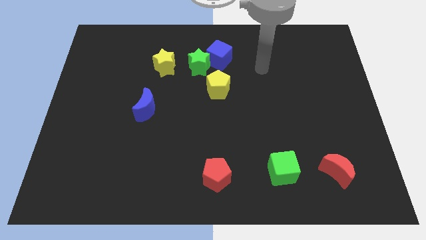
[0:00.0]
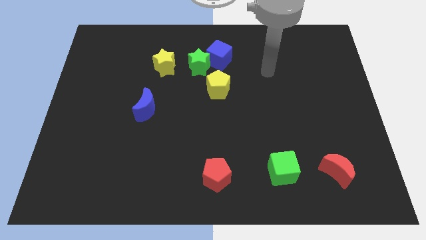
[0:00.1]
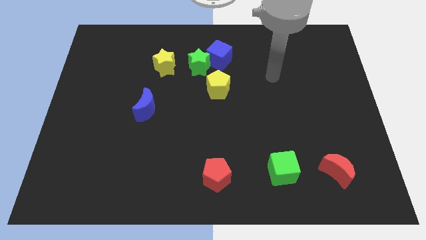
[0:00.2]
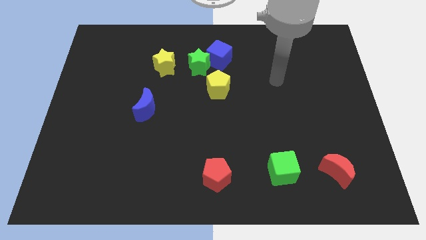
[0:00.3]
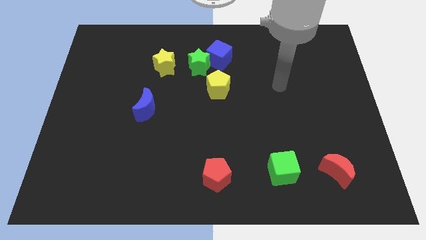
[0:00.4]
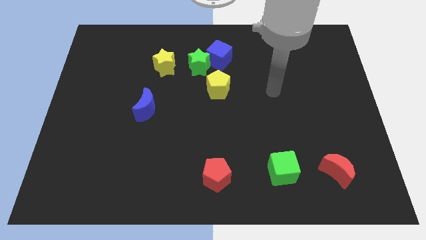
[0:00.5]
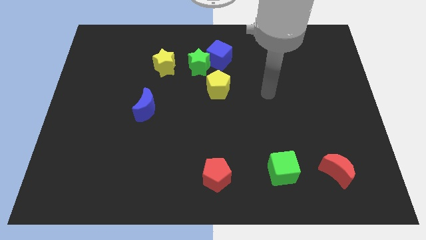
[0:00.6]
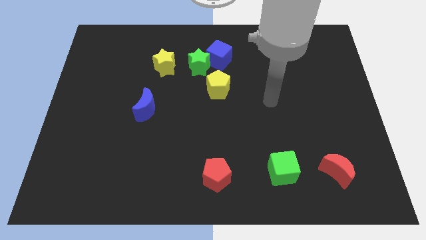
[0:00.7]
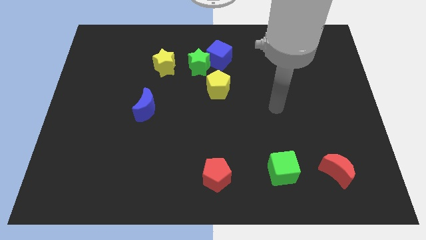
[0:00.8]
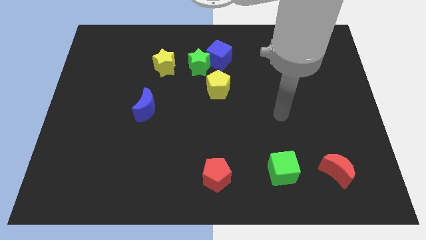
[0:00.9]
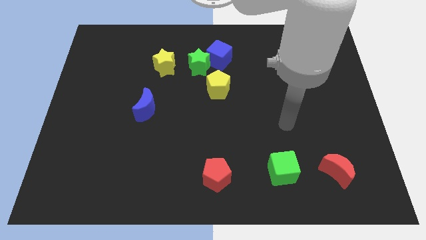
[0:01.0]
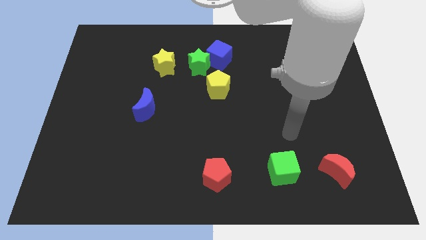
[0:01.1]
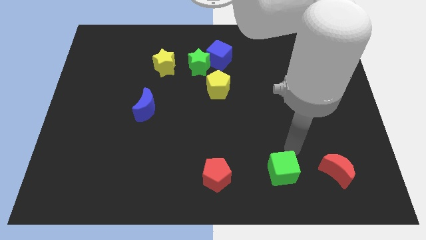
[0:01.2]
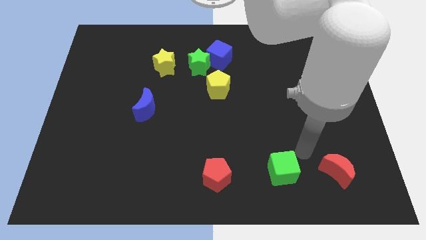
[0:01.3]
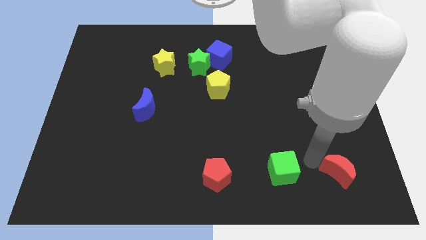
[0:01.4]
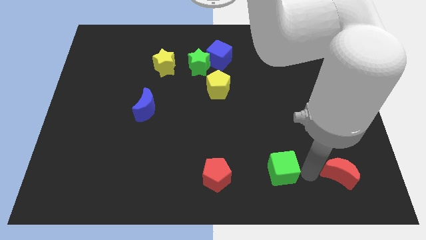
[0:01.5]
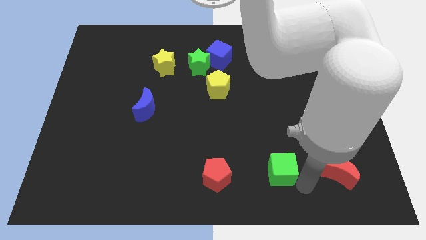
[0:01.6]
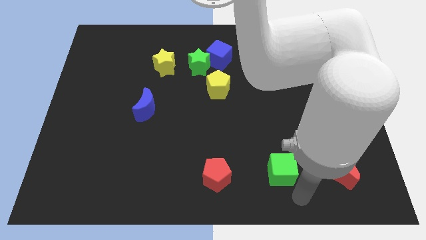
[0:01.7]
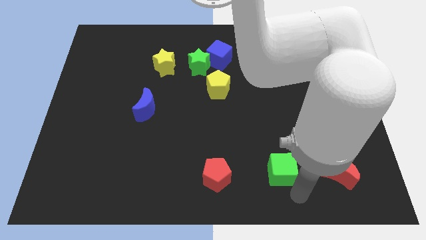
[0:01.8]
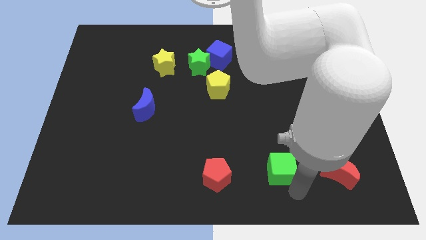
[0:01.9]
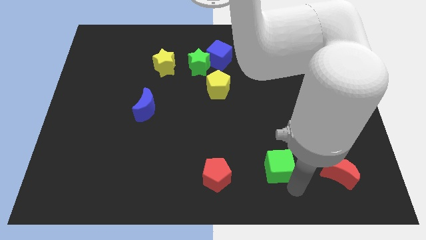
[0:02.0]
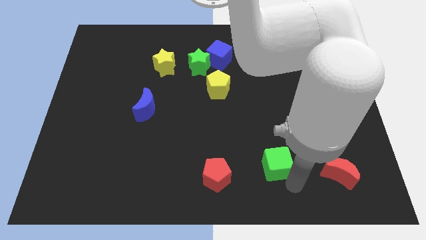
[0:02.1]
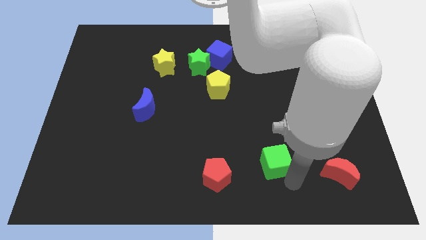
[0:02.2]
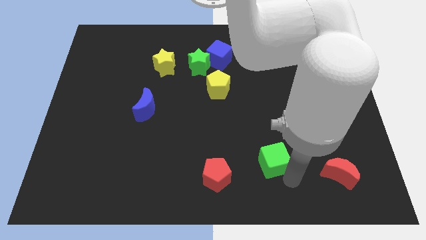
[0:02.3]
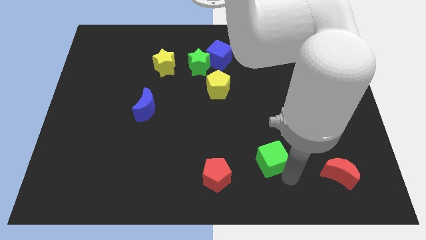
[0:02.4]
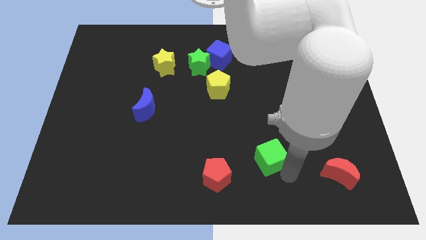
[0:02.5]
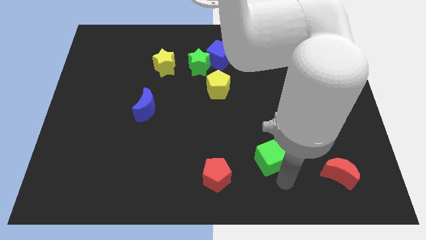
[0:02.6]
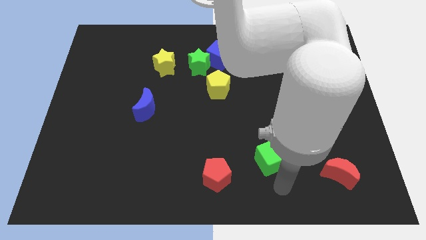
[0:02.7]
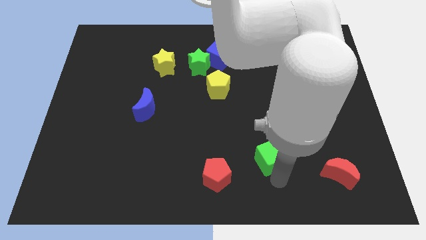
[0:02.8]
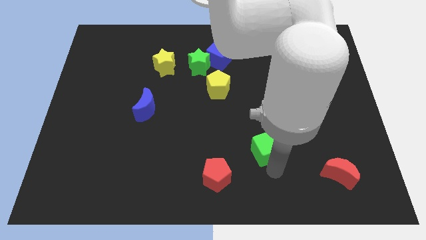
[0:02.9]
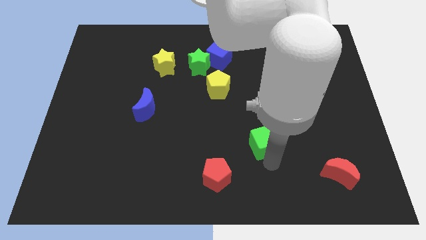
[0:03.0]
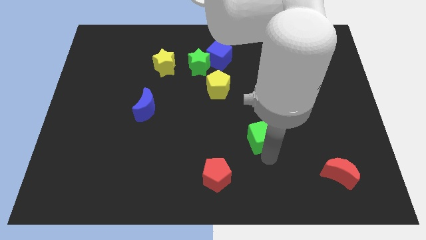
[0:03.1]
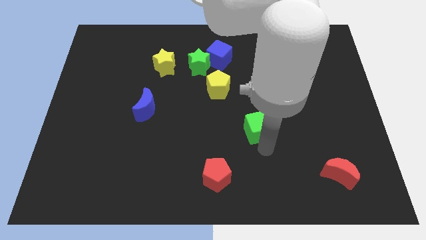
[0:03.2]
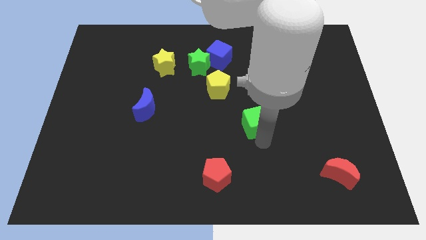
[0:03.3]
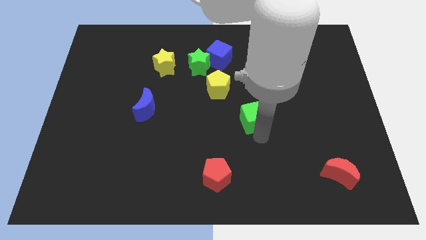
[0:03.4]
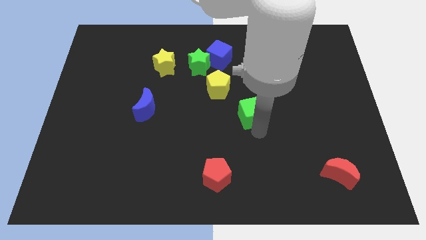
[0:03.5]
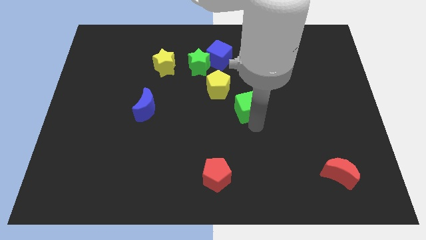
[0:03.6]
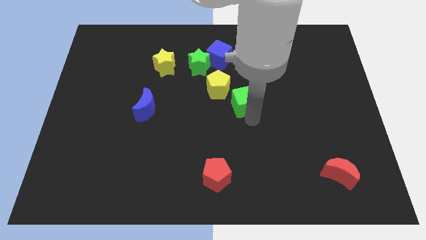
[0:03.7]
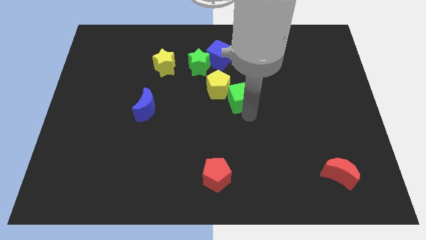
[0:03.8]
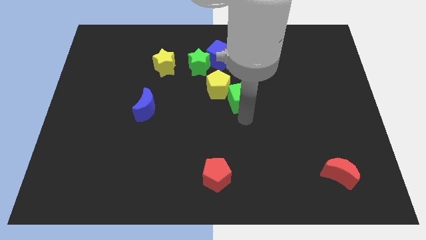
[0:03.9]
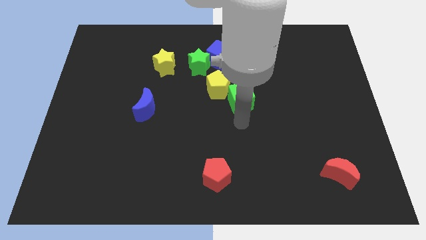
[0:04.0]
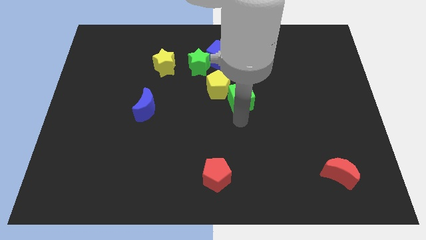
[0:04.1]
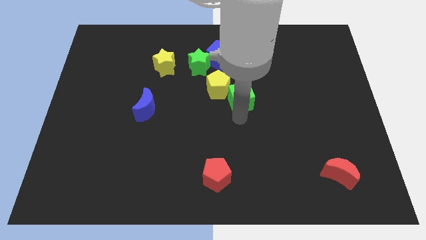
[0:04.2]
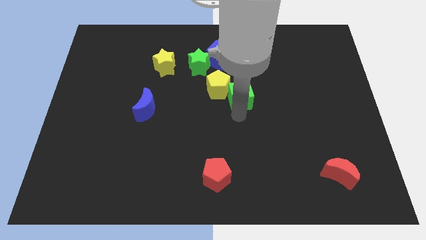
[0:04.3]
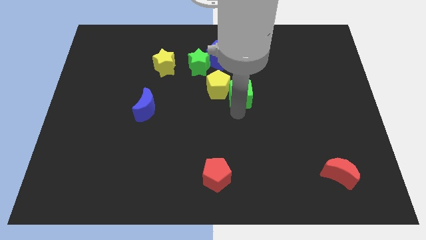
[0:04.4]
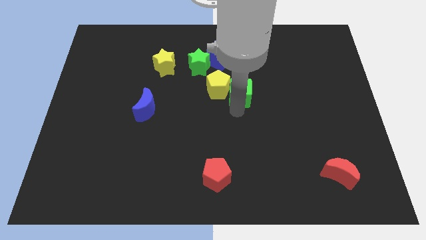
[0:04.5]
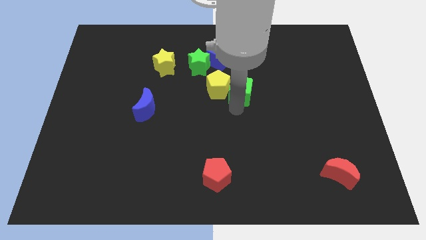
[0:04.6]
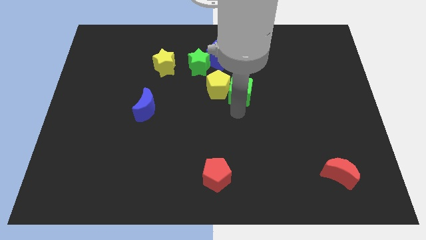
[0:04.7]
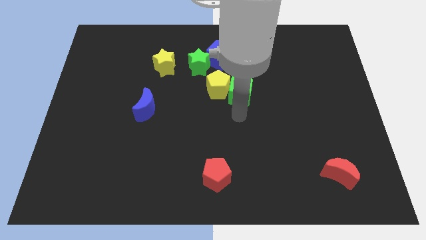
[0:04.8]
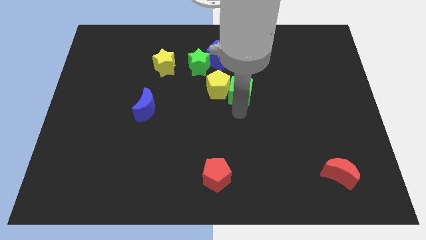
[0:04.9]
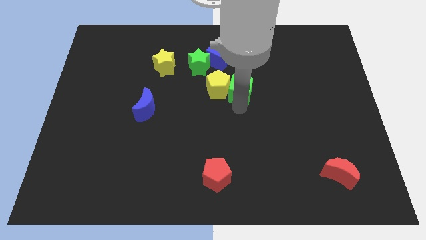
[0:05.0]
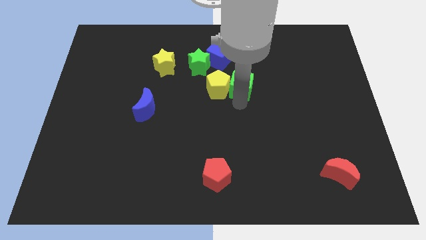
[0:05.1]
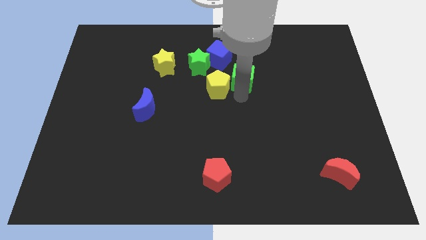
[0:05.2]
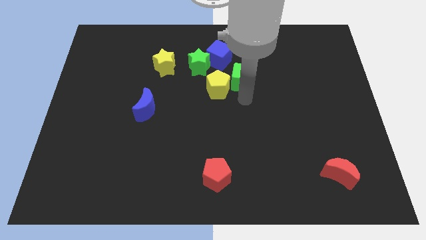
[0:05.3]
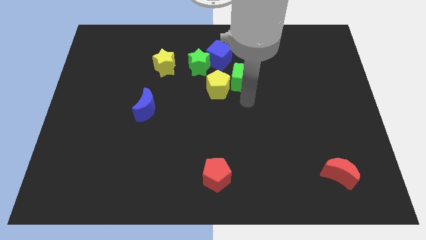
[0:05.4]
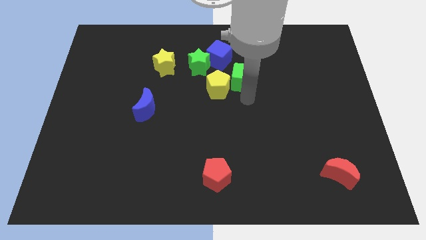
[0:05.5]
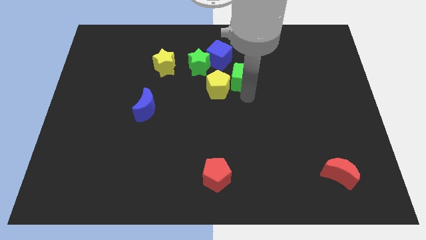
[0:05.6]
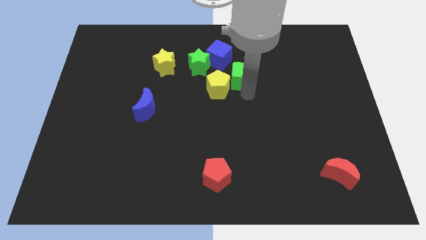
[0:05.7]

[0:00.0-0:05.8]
push the green cube to the right of the green star

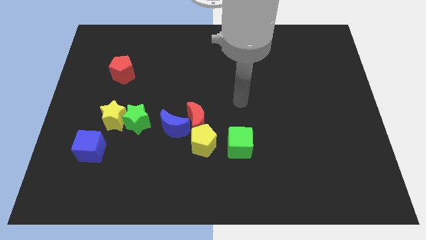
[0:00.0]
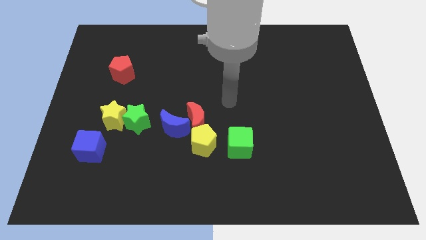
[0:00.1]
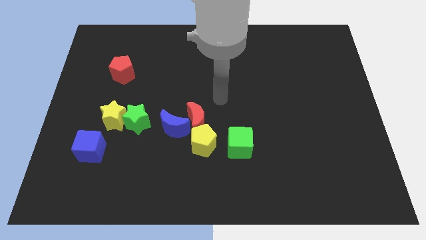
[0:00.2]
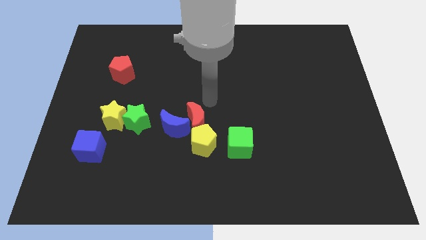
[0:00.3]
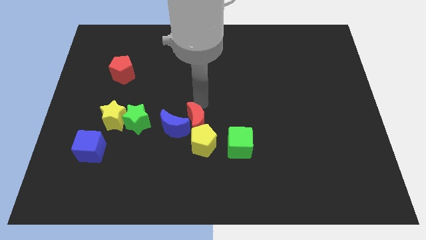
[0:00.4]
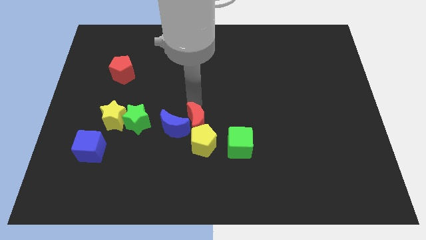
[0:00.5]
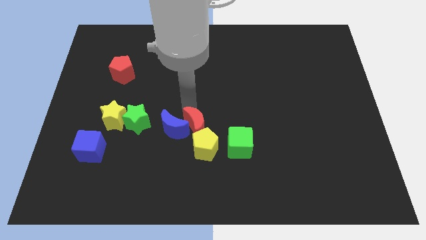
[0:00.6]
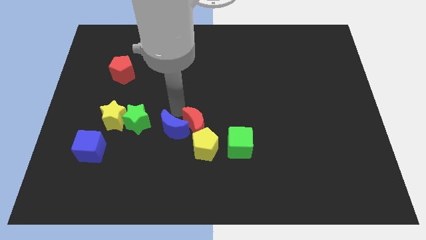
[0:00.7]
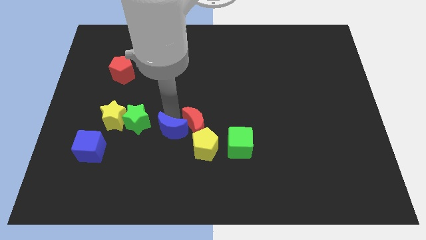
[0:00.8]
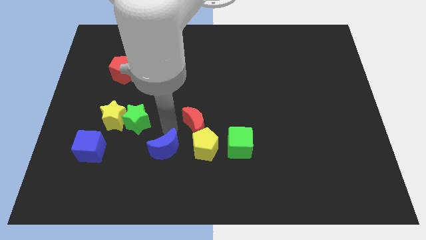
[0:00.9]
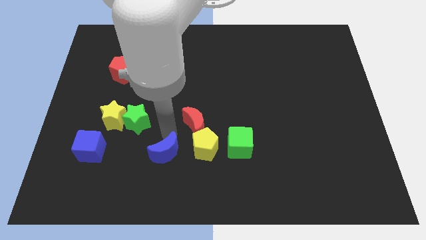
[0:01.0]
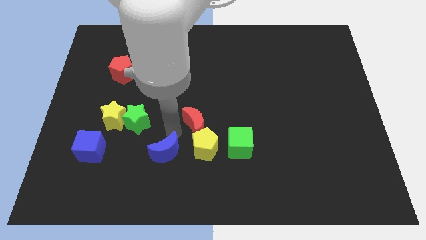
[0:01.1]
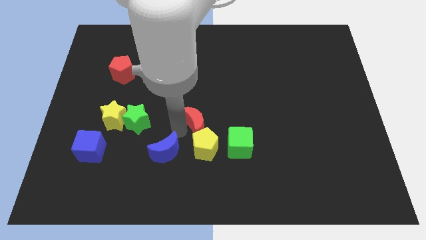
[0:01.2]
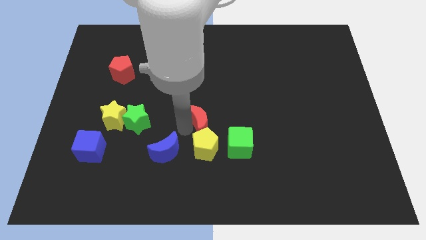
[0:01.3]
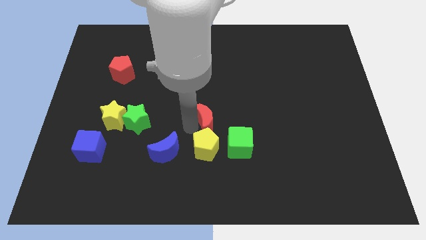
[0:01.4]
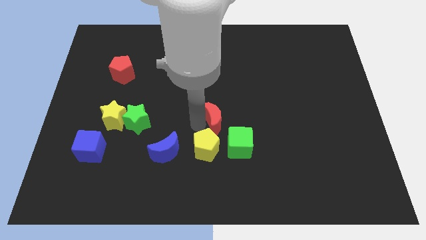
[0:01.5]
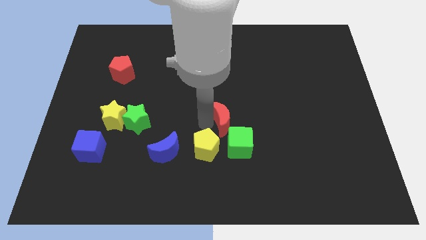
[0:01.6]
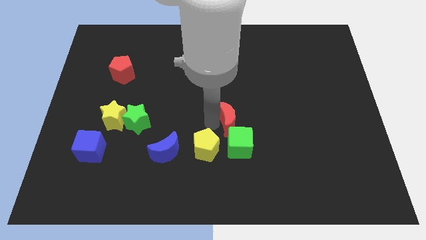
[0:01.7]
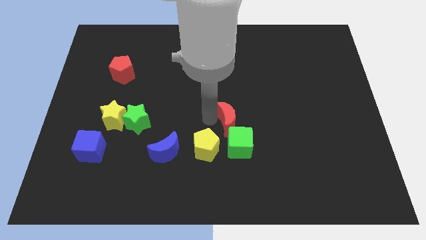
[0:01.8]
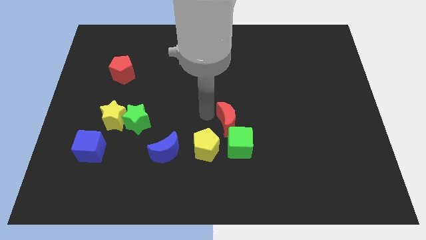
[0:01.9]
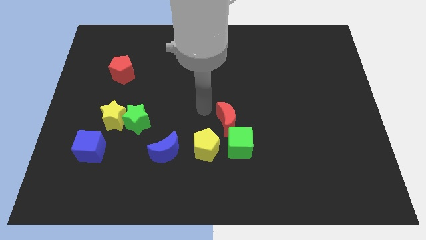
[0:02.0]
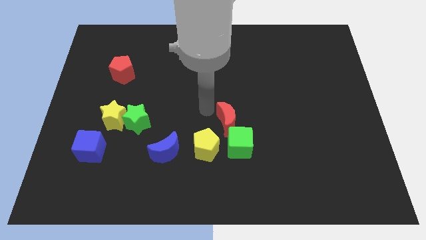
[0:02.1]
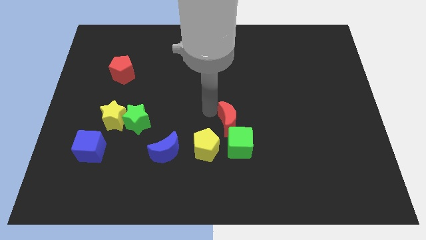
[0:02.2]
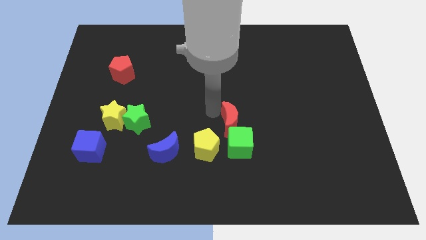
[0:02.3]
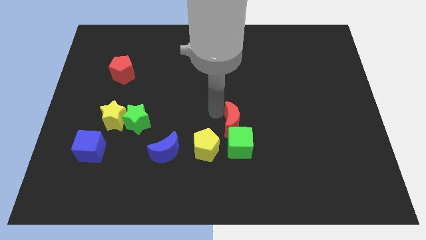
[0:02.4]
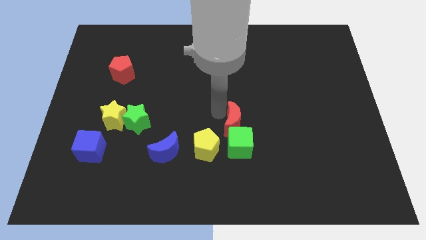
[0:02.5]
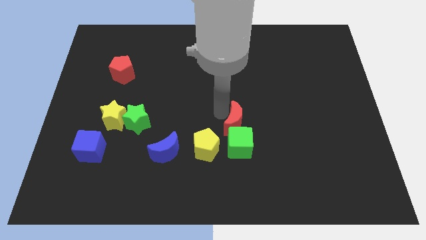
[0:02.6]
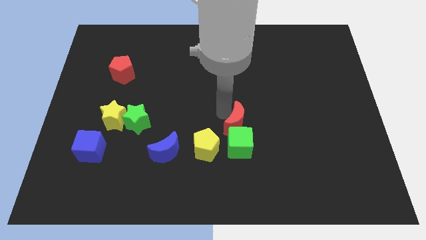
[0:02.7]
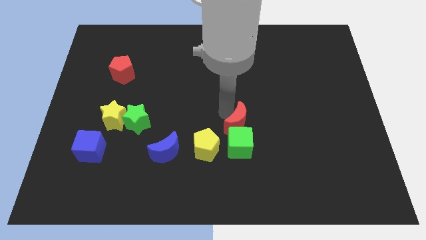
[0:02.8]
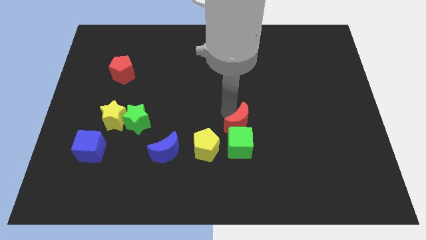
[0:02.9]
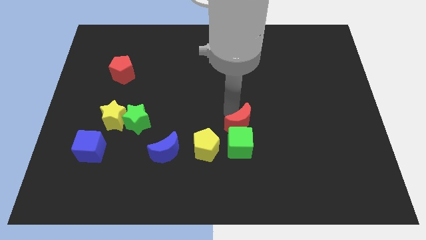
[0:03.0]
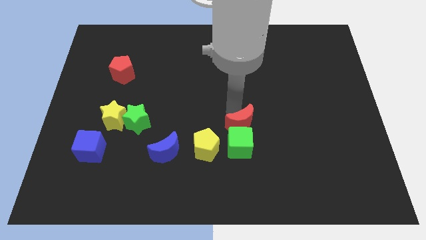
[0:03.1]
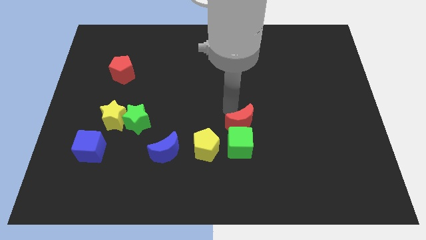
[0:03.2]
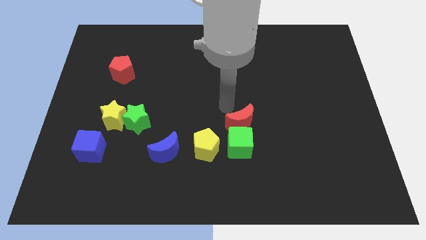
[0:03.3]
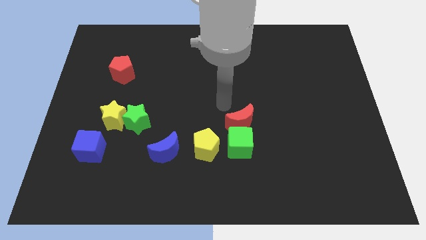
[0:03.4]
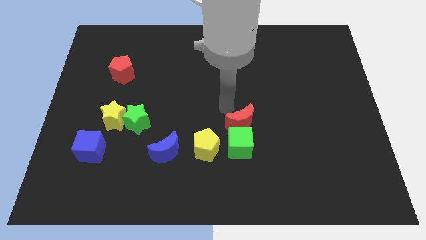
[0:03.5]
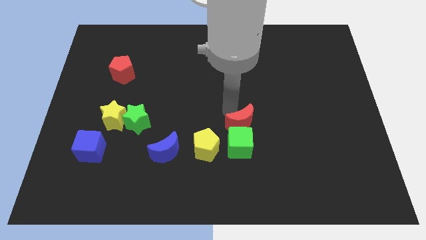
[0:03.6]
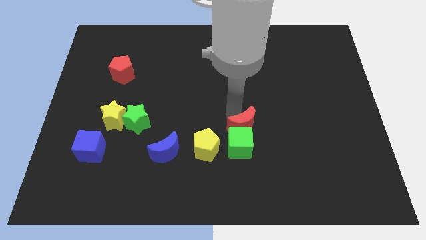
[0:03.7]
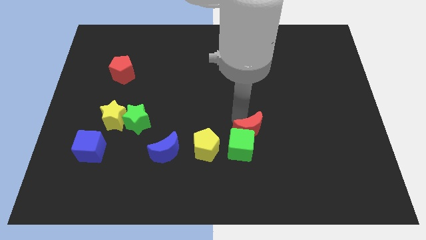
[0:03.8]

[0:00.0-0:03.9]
move the red moon to the right side of the yellow pentagon
